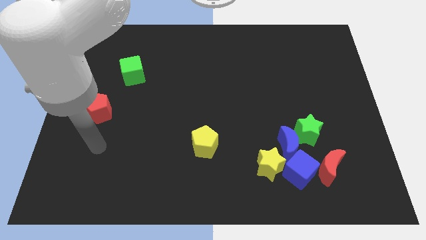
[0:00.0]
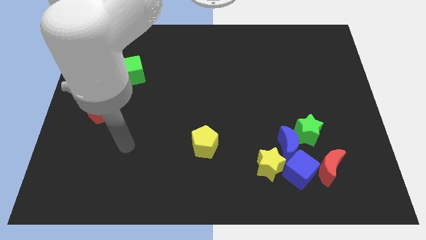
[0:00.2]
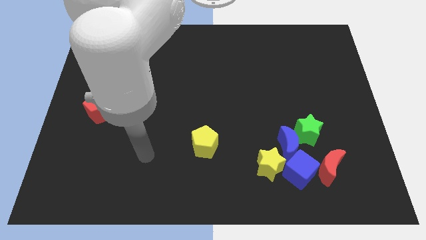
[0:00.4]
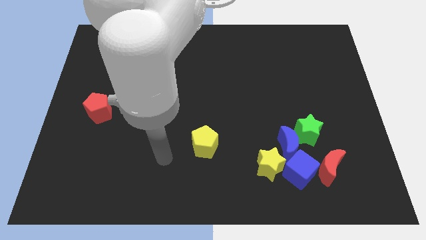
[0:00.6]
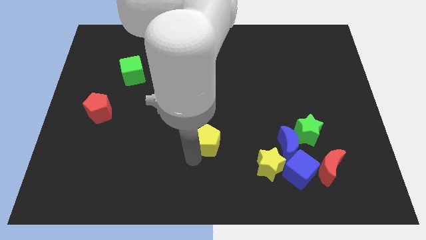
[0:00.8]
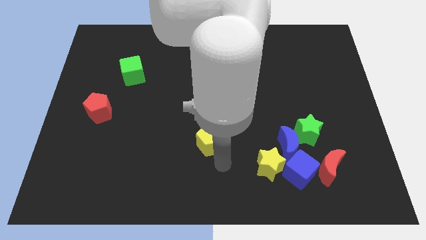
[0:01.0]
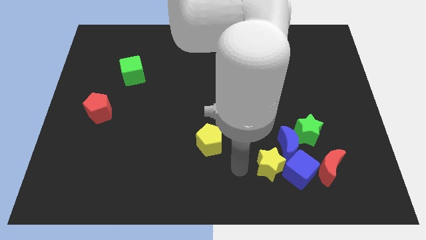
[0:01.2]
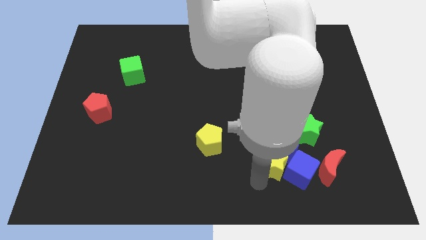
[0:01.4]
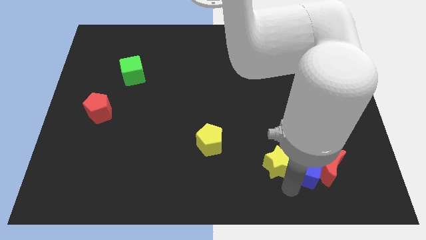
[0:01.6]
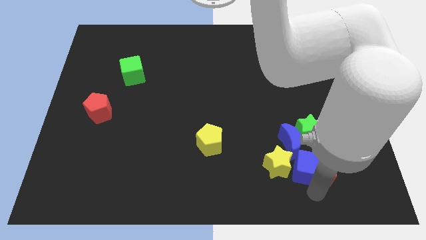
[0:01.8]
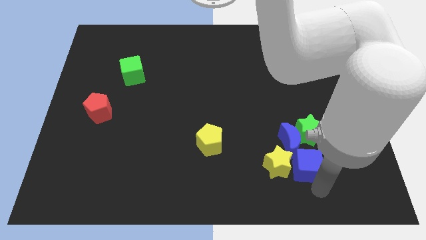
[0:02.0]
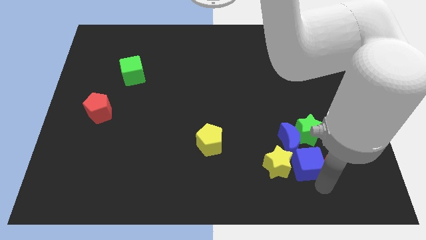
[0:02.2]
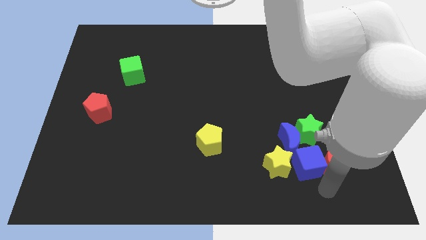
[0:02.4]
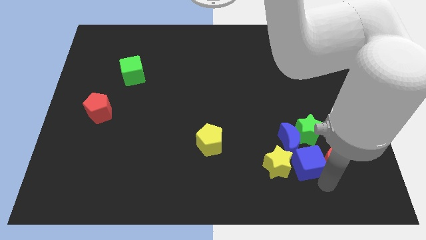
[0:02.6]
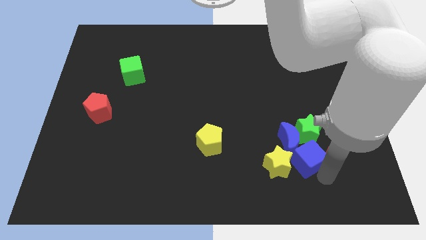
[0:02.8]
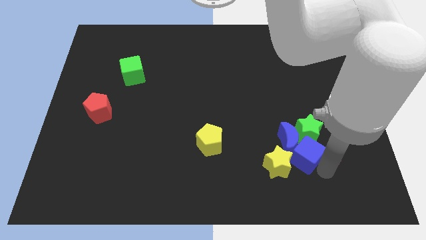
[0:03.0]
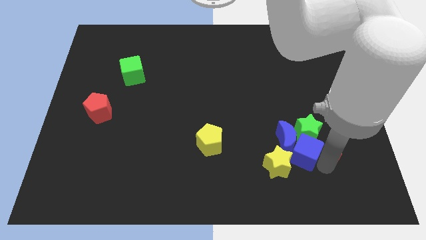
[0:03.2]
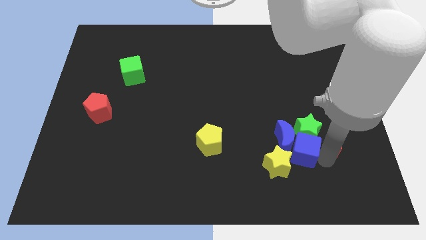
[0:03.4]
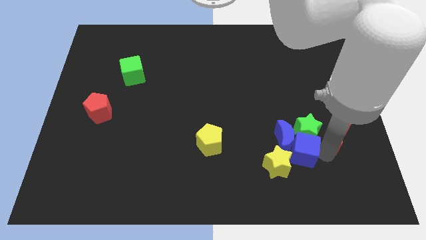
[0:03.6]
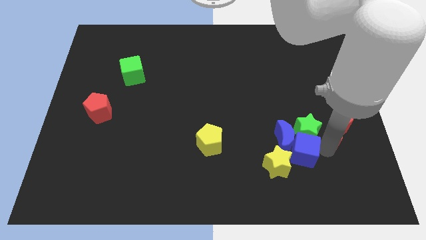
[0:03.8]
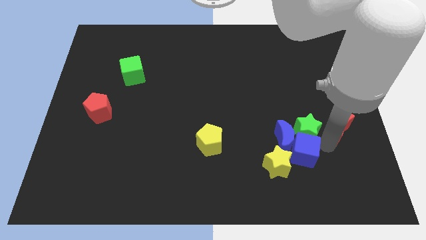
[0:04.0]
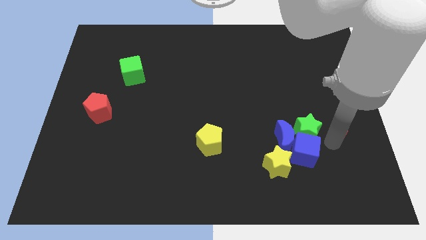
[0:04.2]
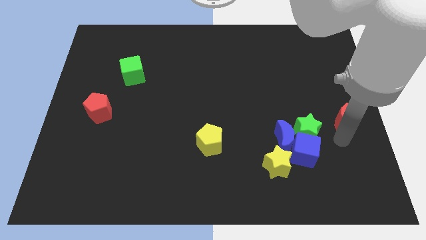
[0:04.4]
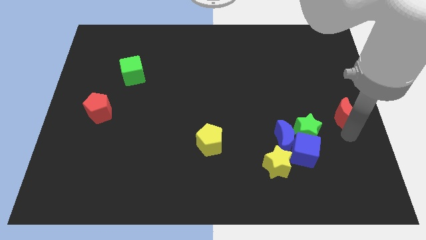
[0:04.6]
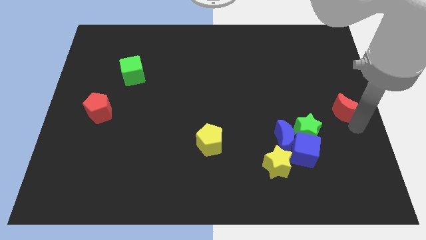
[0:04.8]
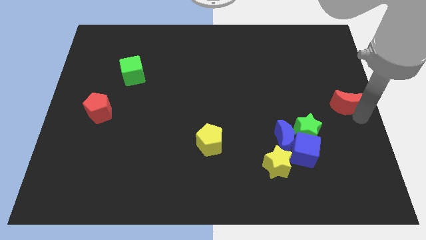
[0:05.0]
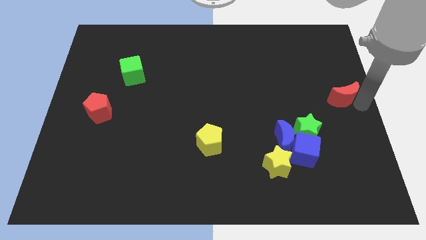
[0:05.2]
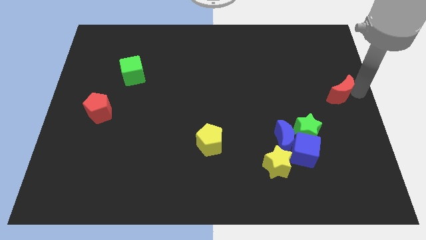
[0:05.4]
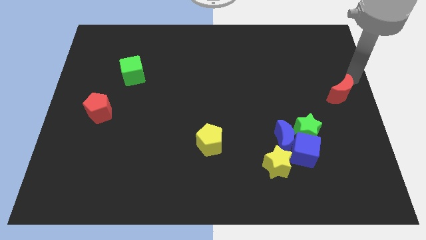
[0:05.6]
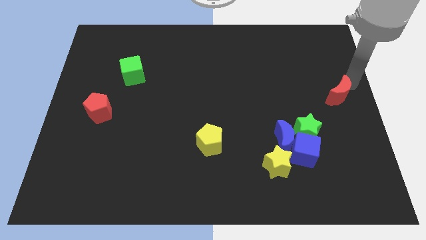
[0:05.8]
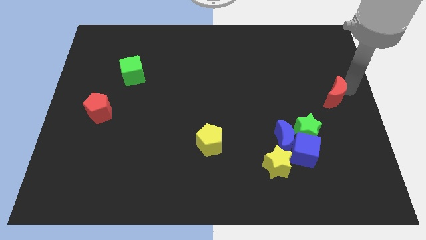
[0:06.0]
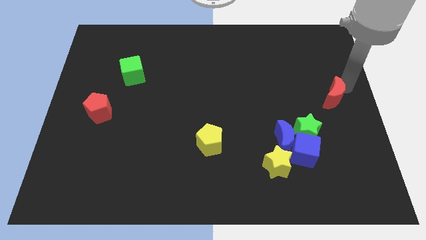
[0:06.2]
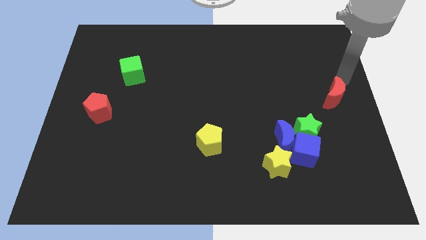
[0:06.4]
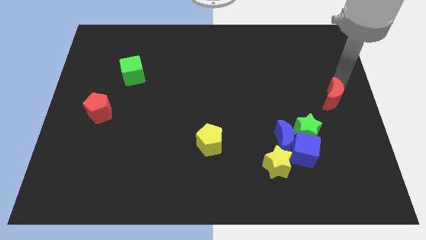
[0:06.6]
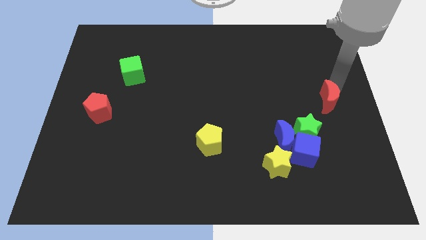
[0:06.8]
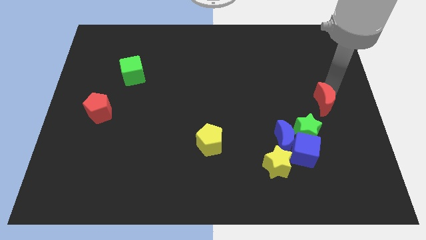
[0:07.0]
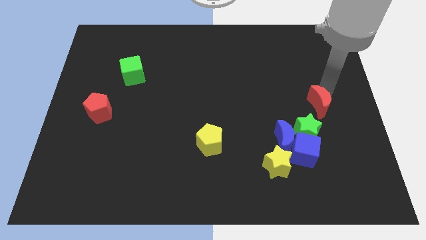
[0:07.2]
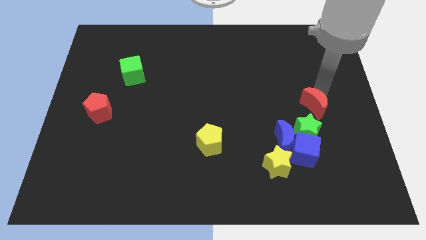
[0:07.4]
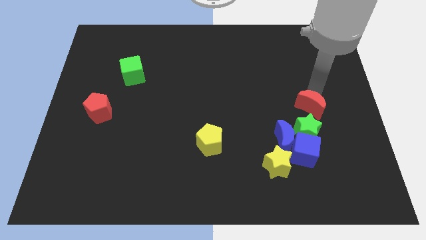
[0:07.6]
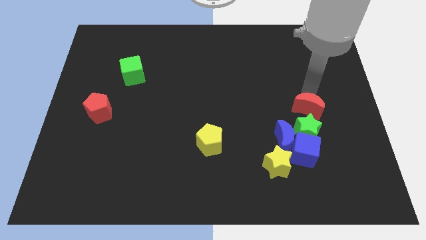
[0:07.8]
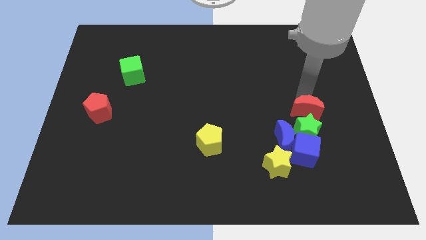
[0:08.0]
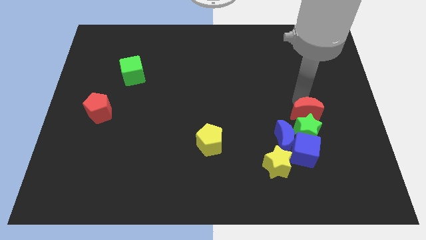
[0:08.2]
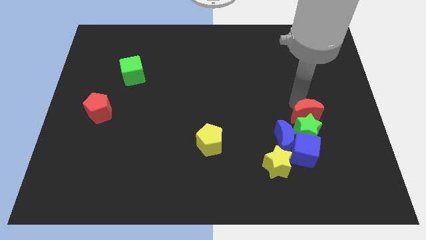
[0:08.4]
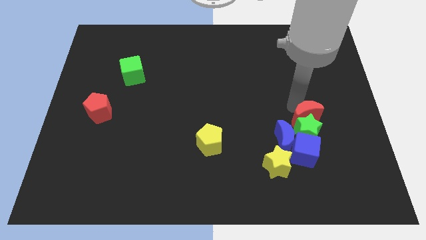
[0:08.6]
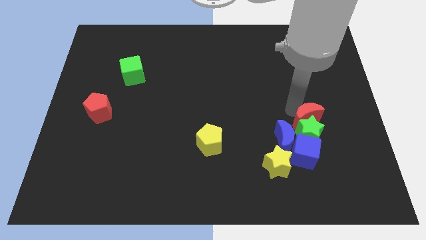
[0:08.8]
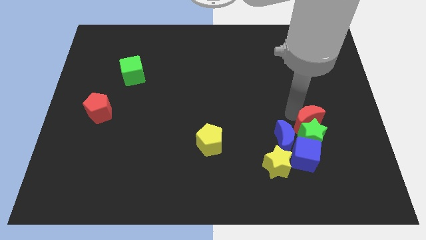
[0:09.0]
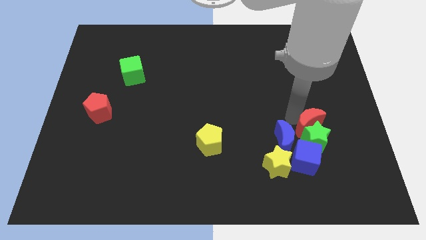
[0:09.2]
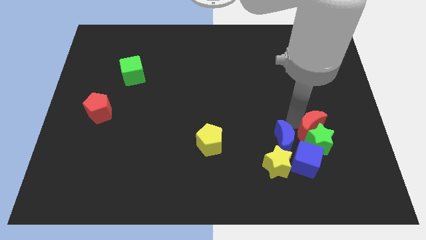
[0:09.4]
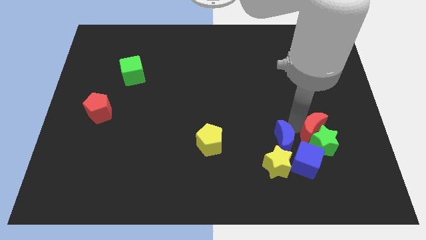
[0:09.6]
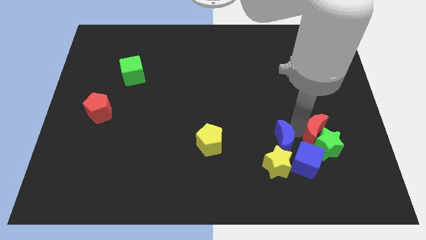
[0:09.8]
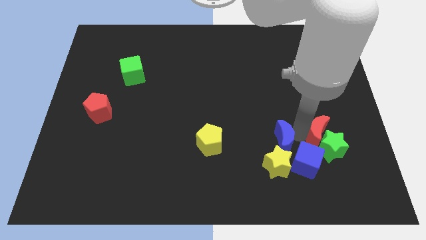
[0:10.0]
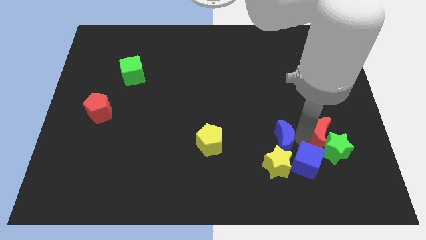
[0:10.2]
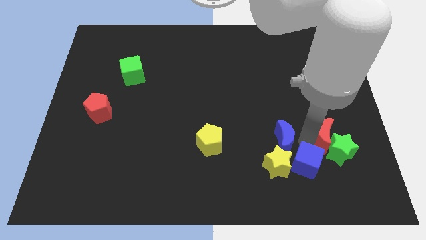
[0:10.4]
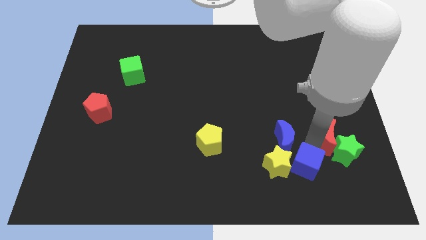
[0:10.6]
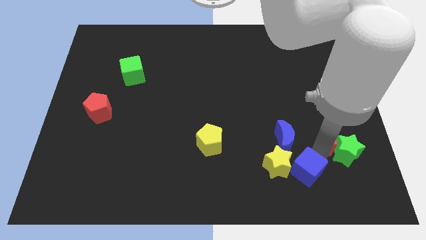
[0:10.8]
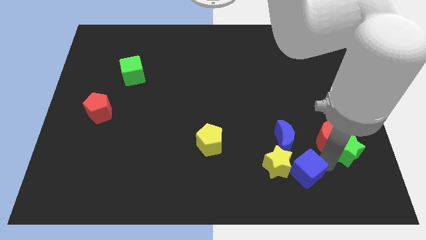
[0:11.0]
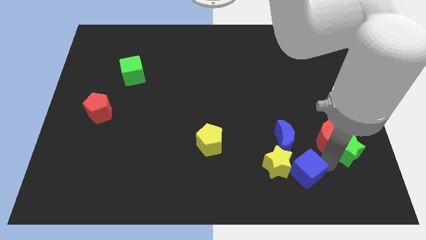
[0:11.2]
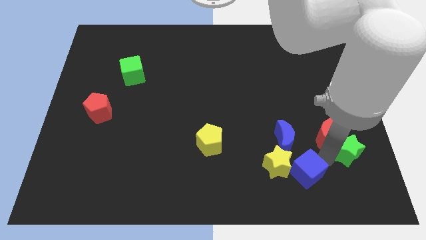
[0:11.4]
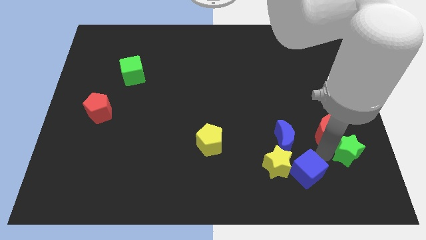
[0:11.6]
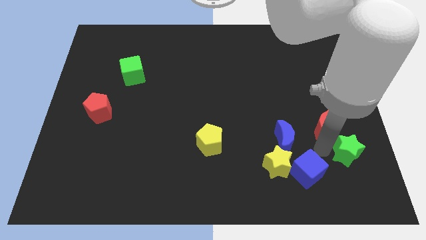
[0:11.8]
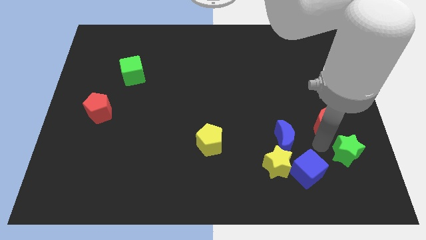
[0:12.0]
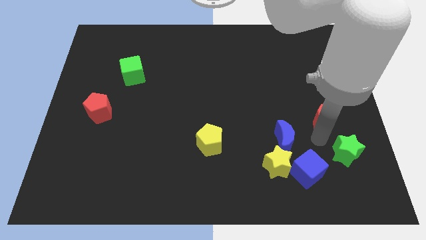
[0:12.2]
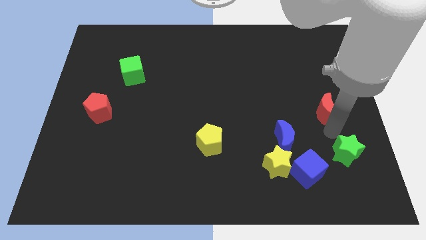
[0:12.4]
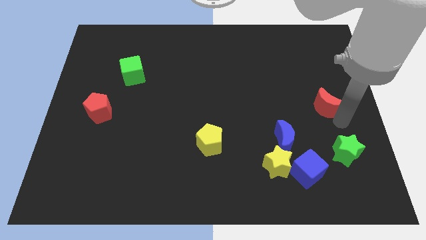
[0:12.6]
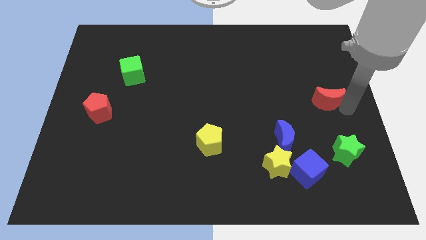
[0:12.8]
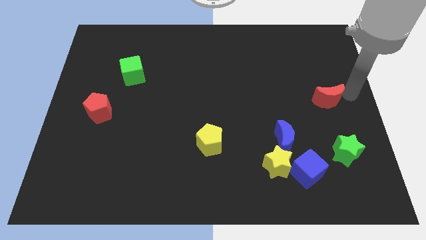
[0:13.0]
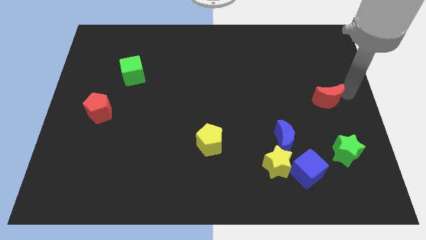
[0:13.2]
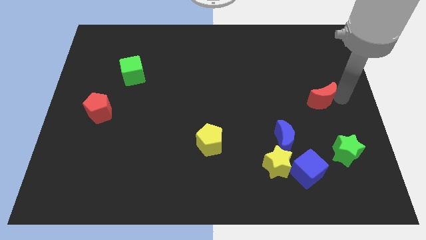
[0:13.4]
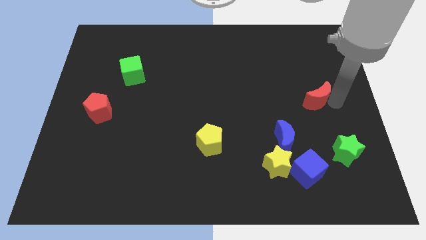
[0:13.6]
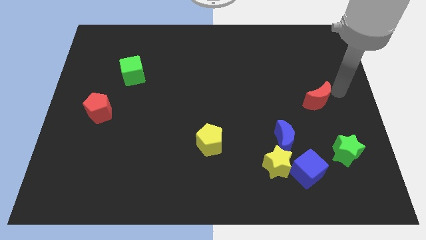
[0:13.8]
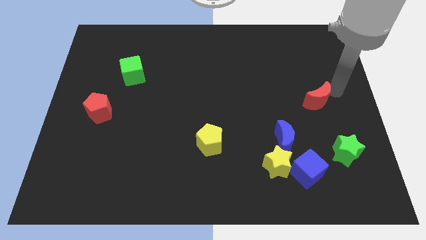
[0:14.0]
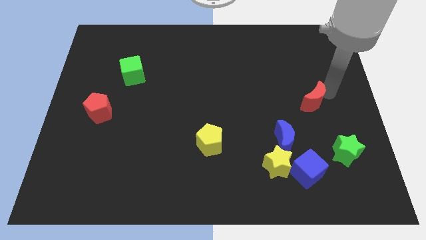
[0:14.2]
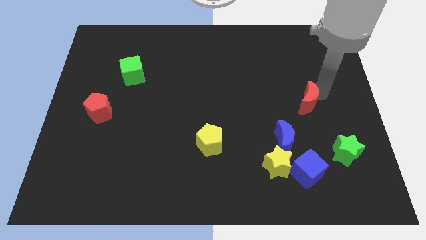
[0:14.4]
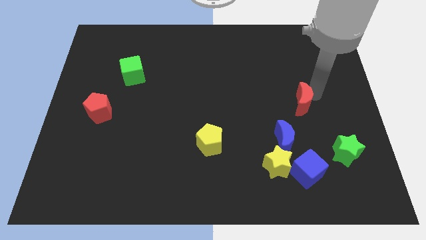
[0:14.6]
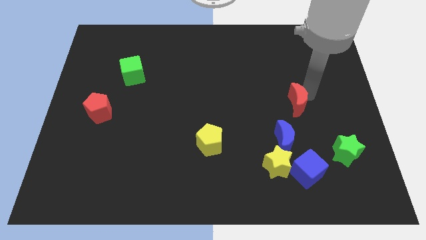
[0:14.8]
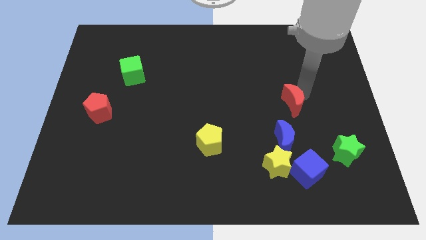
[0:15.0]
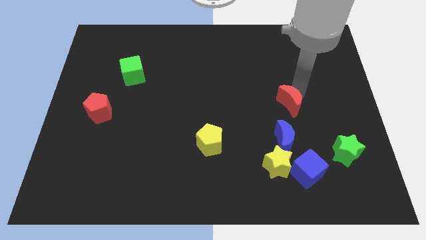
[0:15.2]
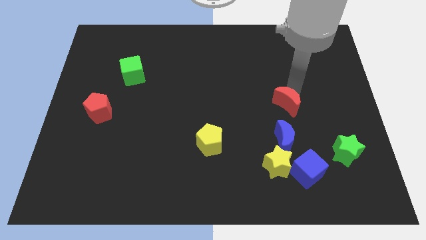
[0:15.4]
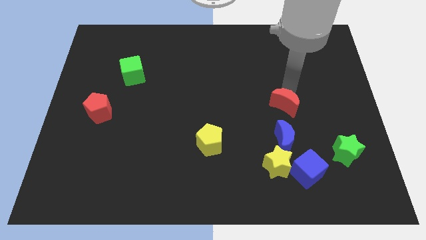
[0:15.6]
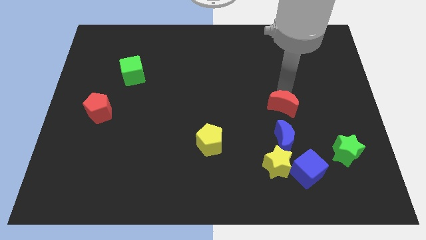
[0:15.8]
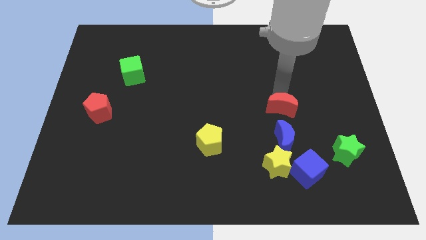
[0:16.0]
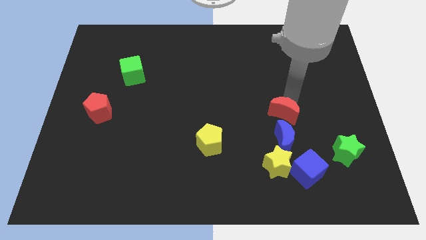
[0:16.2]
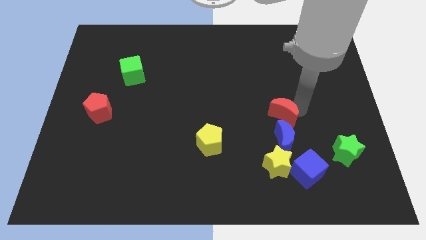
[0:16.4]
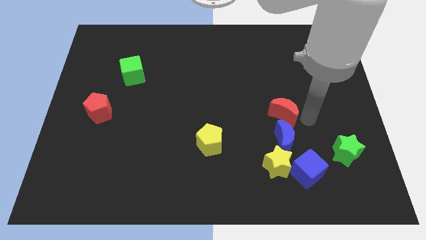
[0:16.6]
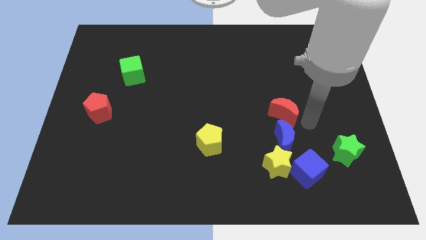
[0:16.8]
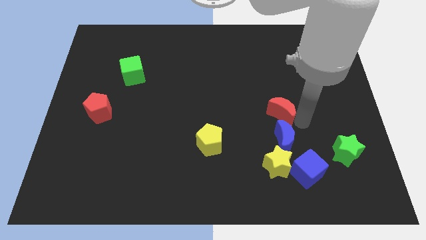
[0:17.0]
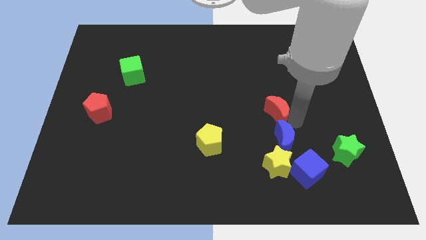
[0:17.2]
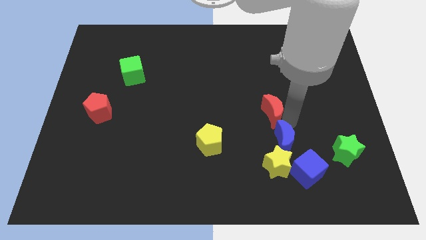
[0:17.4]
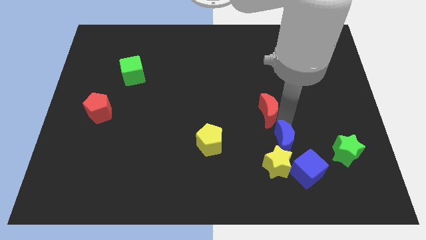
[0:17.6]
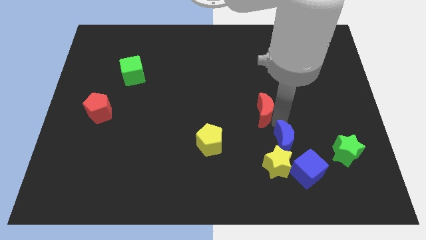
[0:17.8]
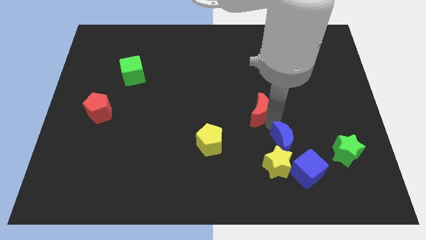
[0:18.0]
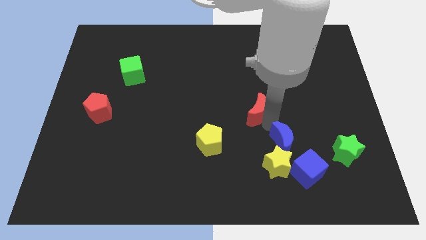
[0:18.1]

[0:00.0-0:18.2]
move the red moon upwards and left diagonally
